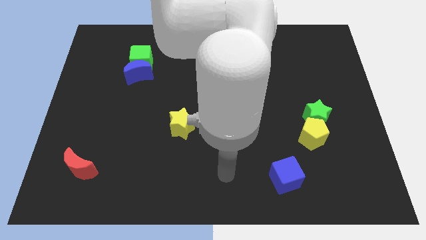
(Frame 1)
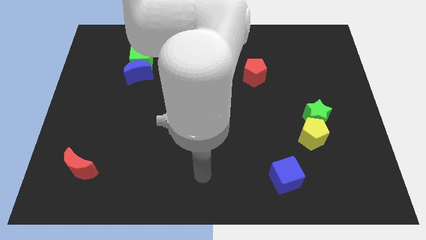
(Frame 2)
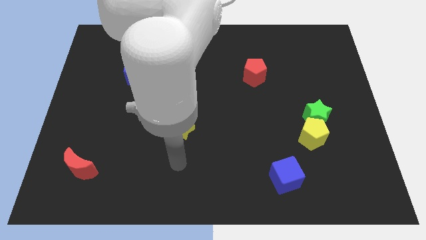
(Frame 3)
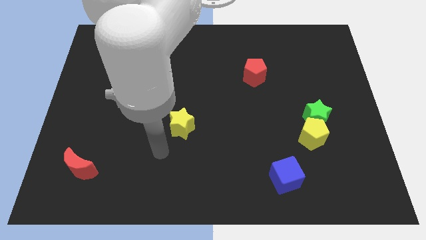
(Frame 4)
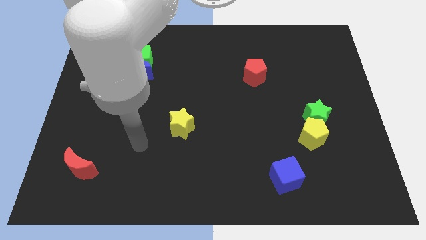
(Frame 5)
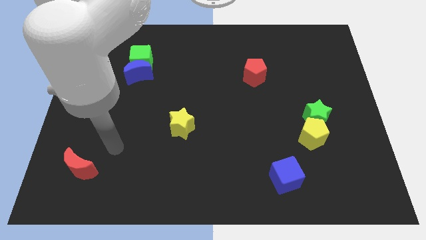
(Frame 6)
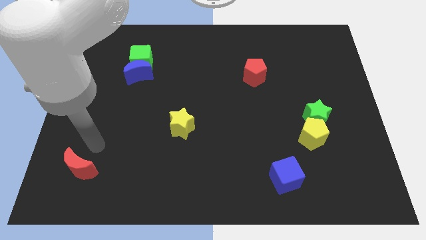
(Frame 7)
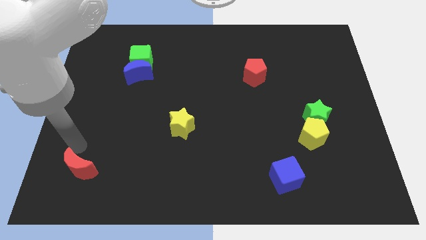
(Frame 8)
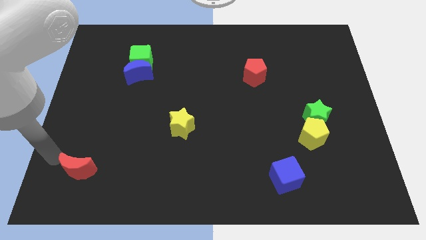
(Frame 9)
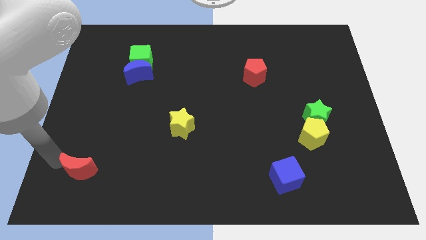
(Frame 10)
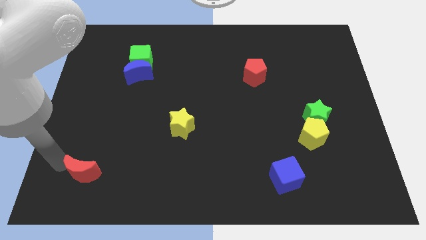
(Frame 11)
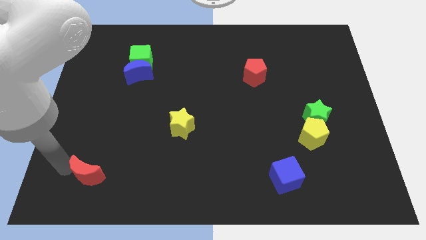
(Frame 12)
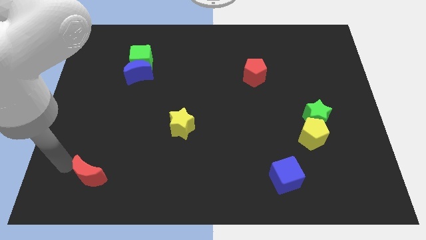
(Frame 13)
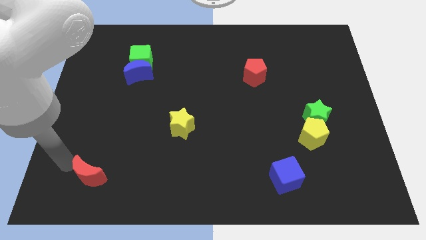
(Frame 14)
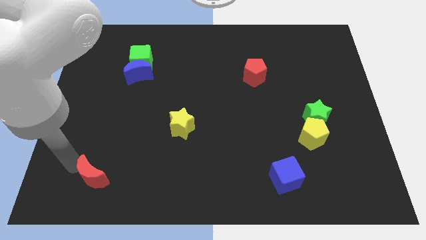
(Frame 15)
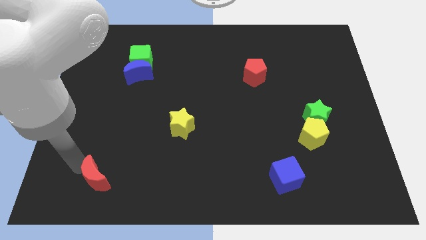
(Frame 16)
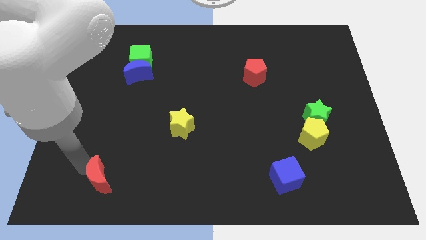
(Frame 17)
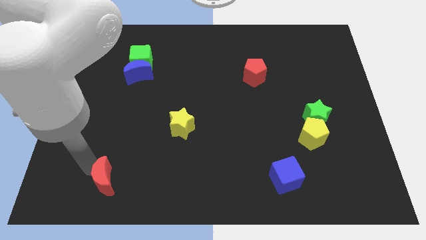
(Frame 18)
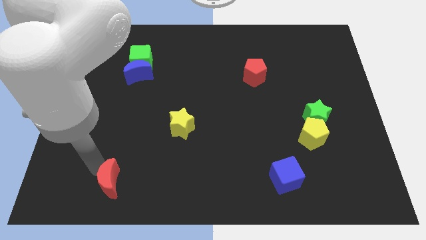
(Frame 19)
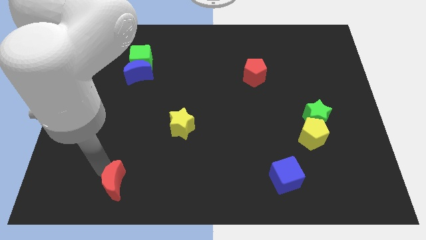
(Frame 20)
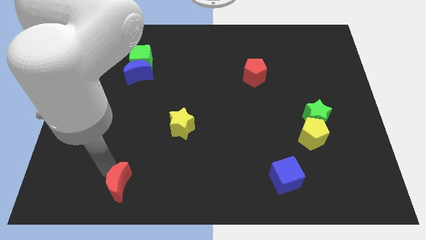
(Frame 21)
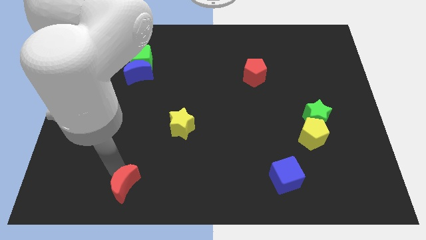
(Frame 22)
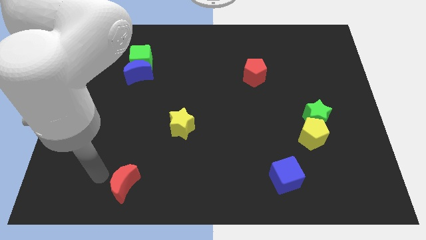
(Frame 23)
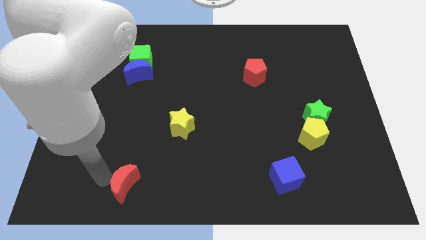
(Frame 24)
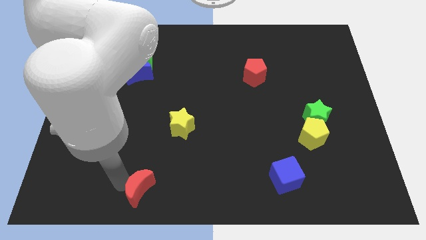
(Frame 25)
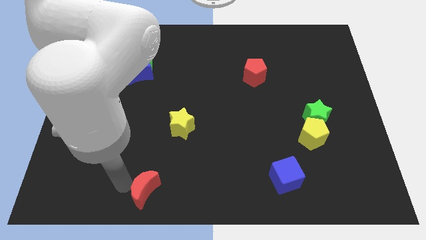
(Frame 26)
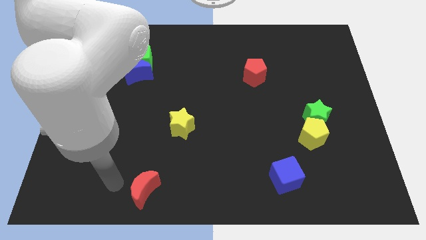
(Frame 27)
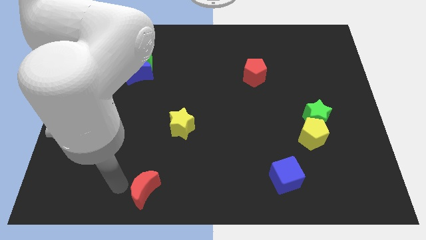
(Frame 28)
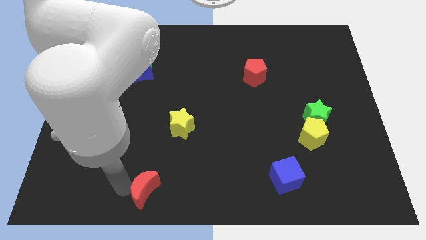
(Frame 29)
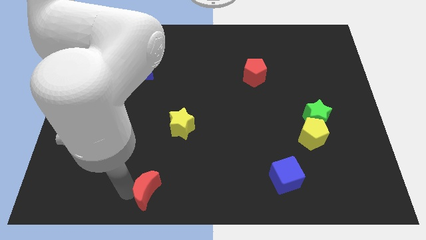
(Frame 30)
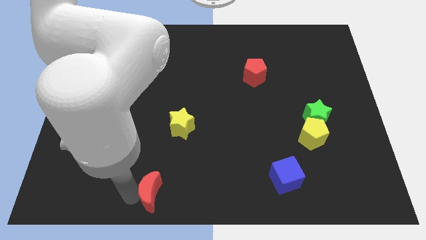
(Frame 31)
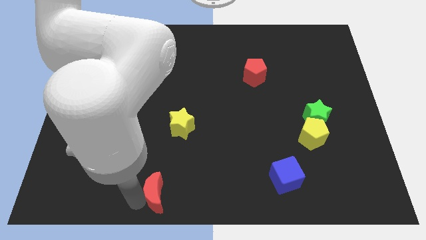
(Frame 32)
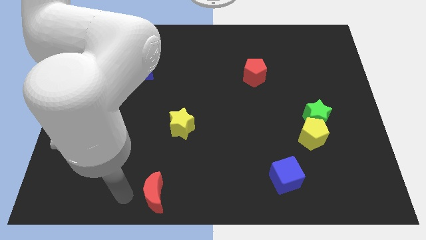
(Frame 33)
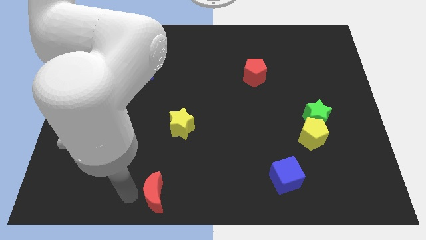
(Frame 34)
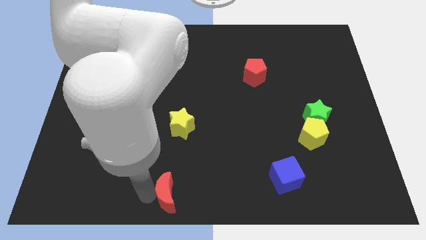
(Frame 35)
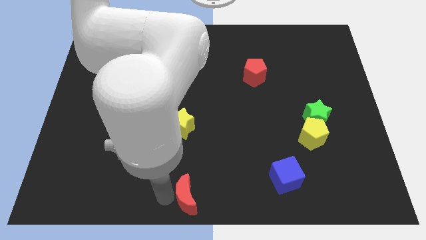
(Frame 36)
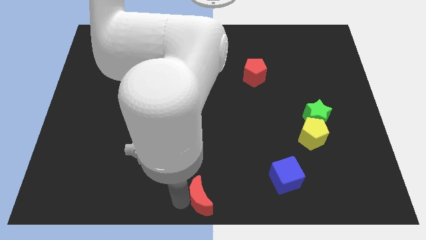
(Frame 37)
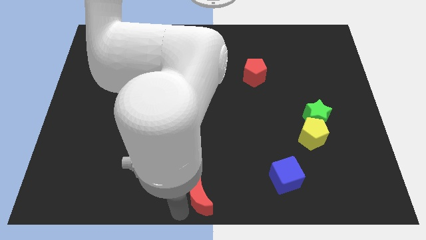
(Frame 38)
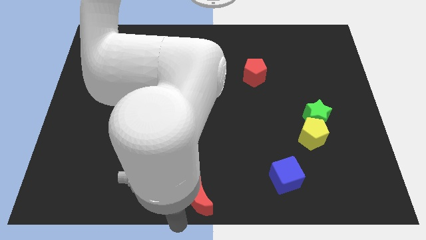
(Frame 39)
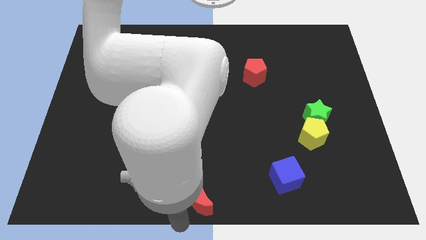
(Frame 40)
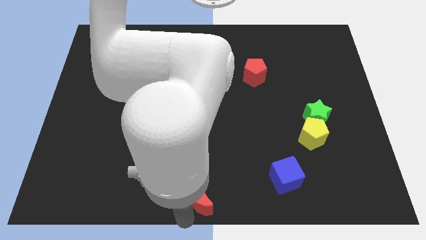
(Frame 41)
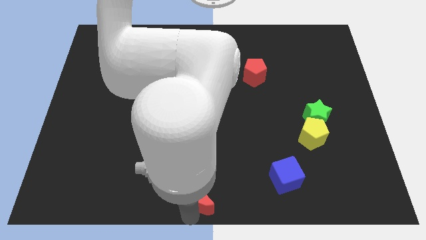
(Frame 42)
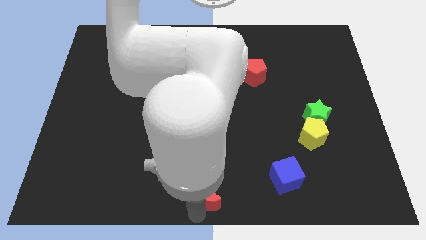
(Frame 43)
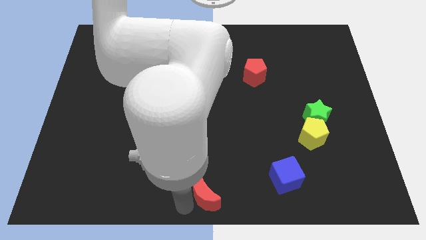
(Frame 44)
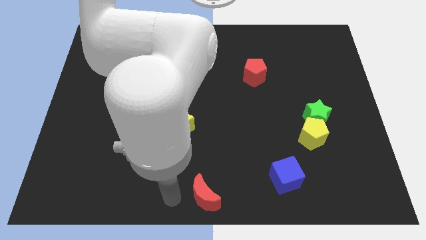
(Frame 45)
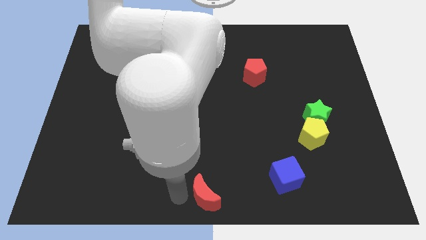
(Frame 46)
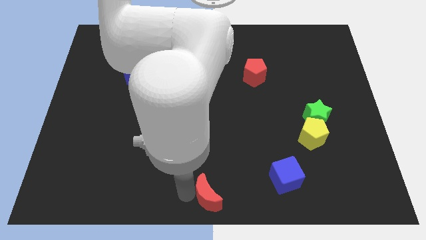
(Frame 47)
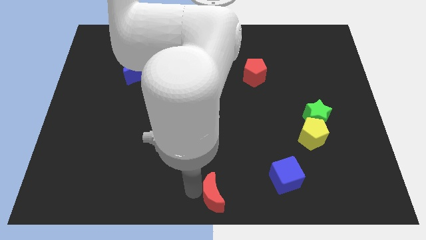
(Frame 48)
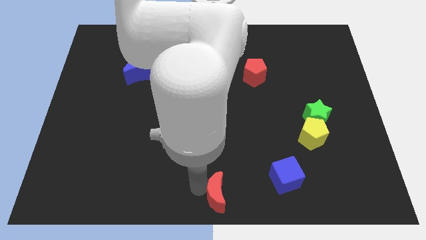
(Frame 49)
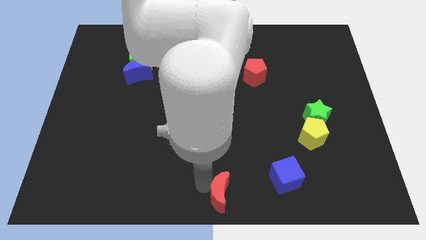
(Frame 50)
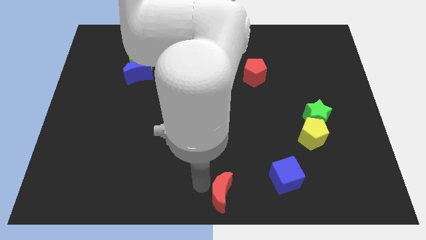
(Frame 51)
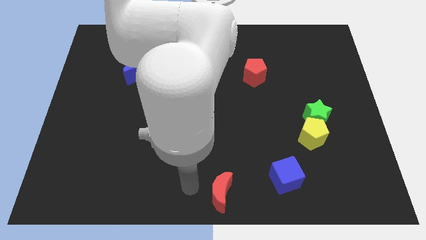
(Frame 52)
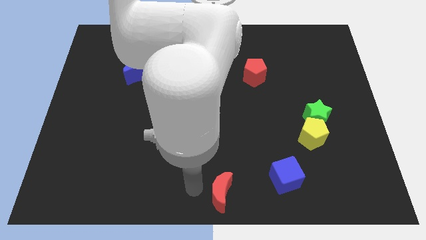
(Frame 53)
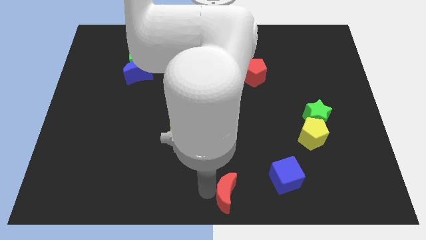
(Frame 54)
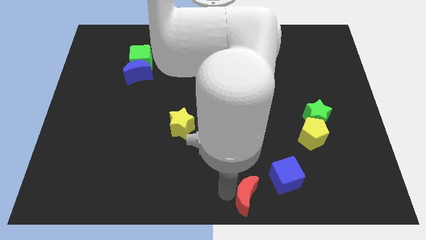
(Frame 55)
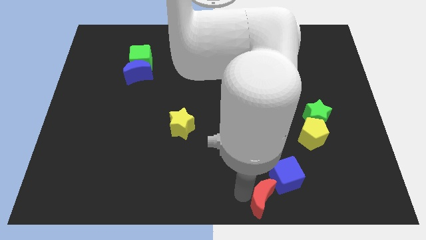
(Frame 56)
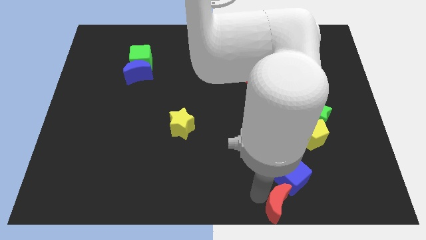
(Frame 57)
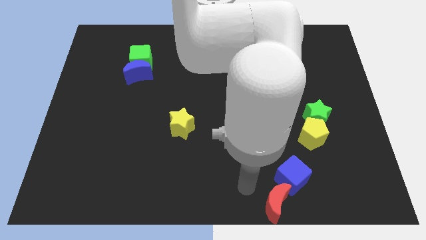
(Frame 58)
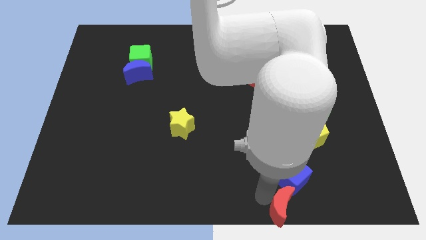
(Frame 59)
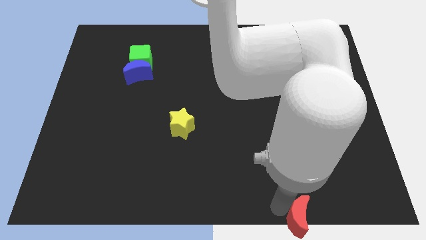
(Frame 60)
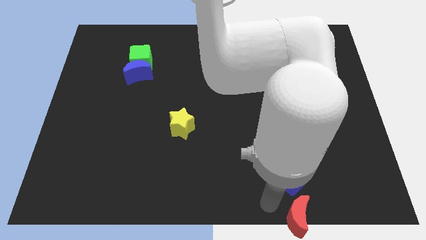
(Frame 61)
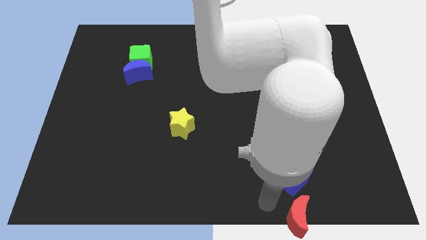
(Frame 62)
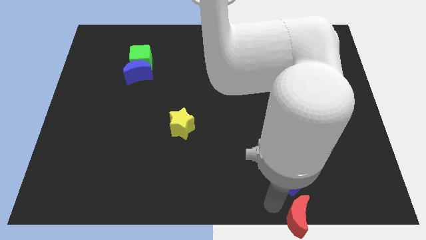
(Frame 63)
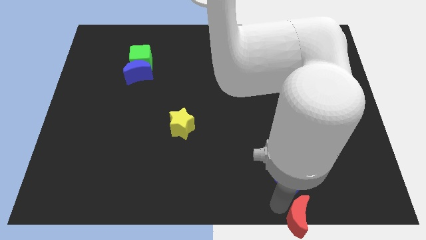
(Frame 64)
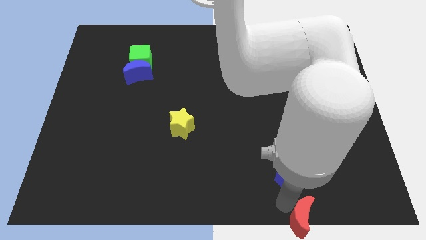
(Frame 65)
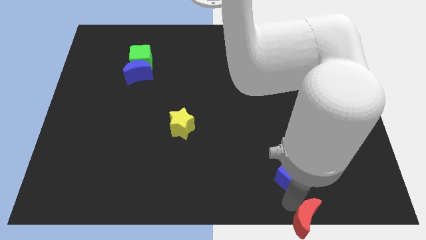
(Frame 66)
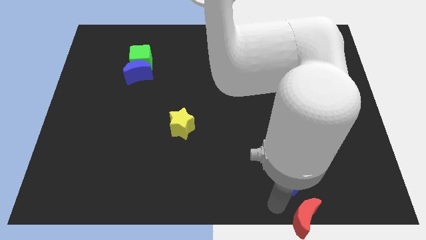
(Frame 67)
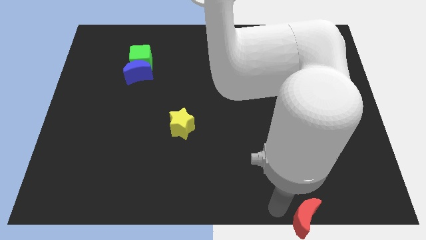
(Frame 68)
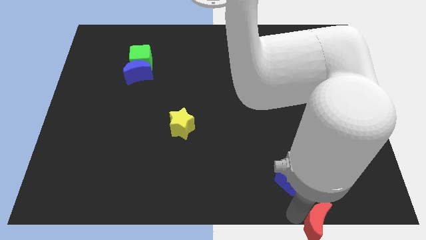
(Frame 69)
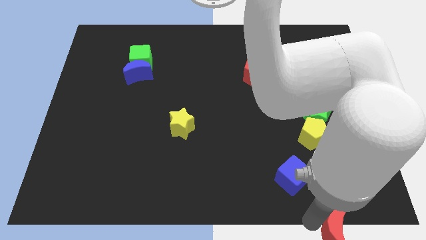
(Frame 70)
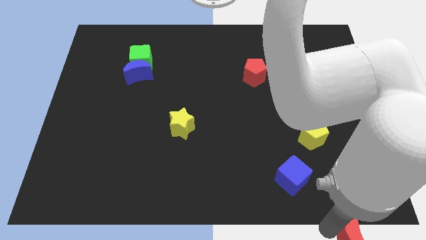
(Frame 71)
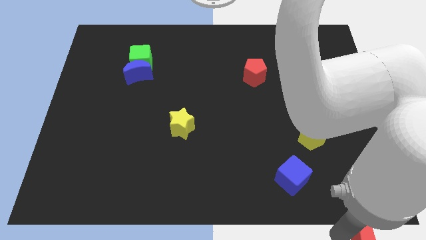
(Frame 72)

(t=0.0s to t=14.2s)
slide the red moon to the bottom right of the board
